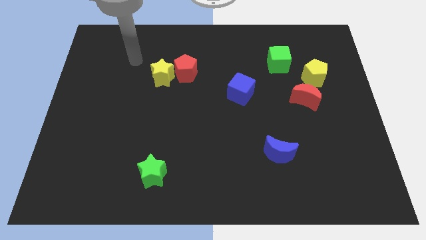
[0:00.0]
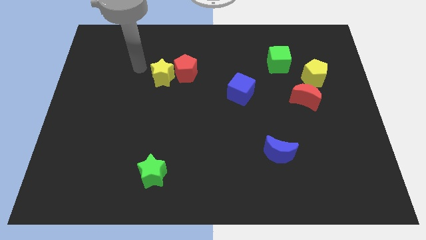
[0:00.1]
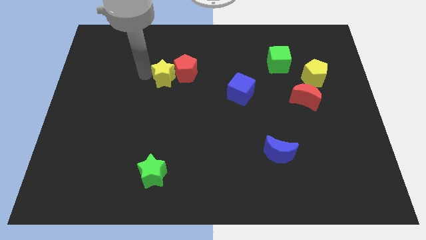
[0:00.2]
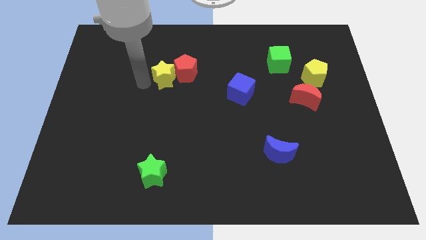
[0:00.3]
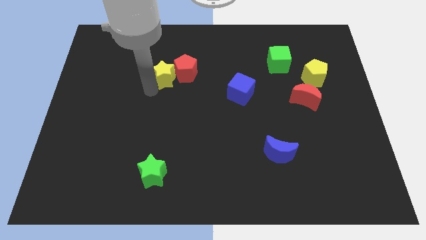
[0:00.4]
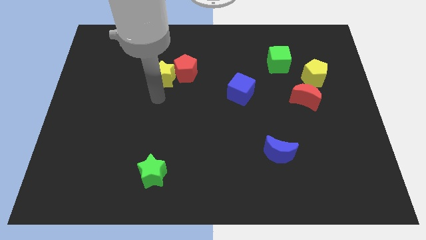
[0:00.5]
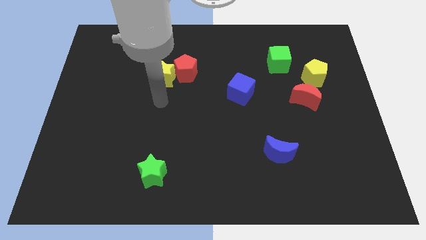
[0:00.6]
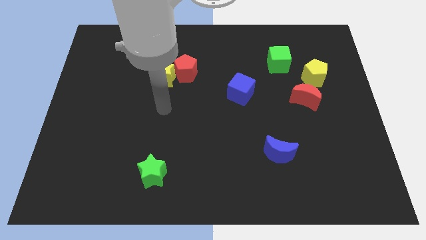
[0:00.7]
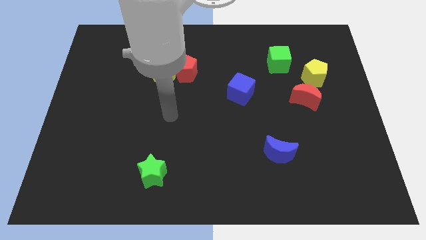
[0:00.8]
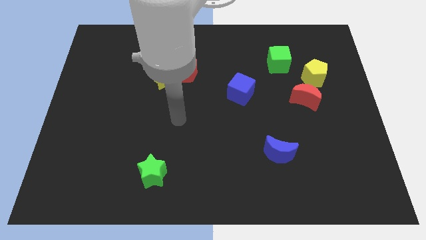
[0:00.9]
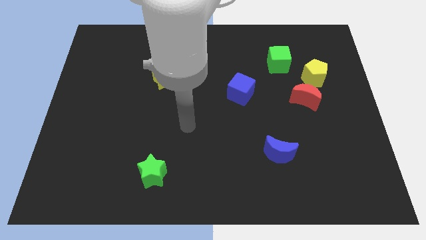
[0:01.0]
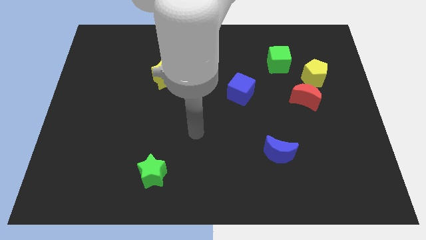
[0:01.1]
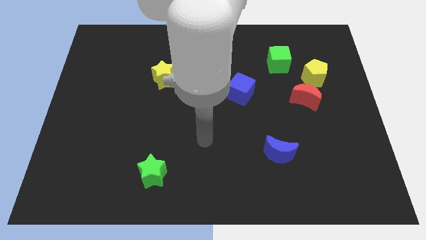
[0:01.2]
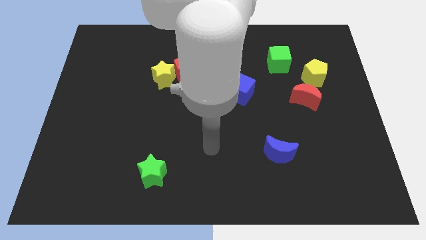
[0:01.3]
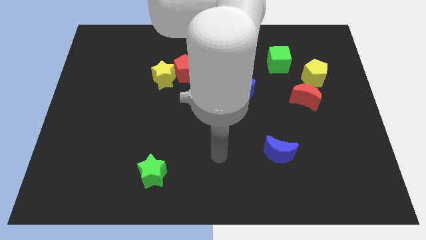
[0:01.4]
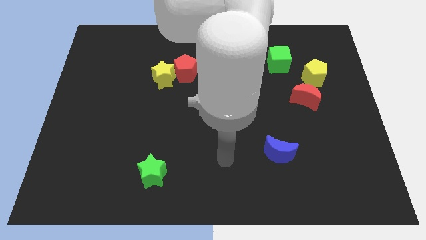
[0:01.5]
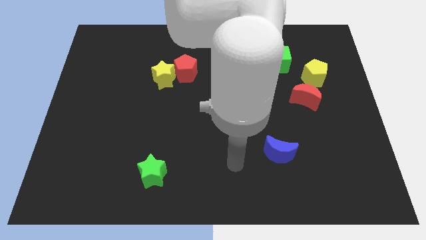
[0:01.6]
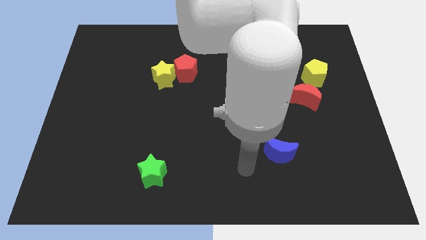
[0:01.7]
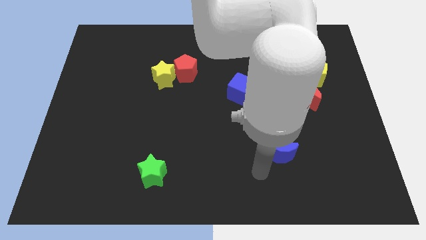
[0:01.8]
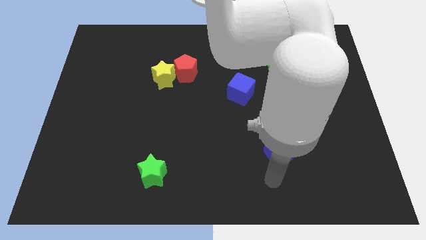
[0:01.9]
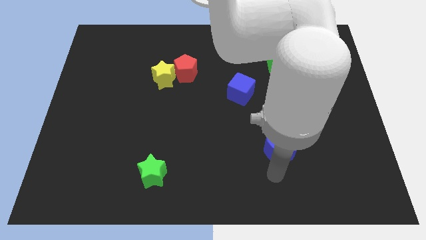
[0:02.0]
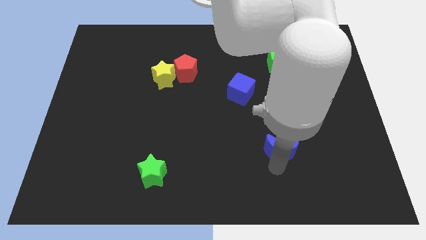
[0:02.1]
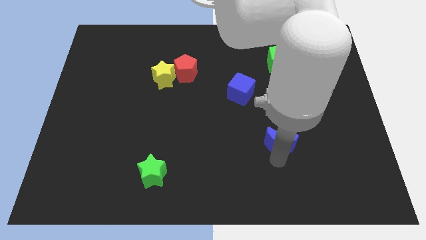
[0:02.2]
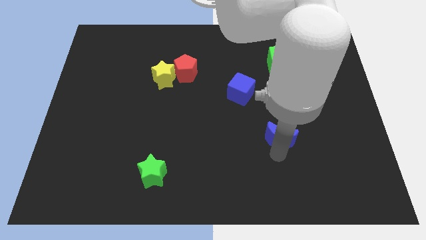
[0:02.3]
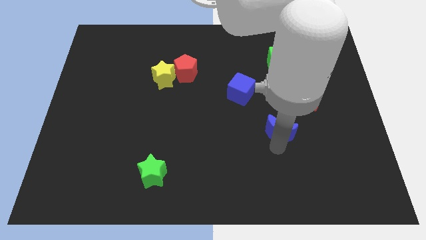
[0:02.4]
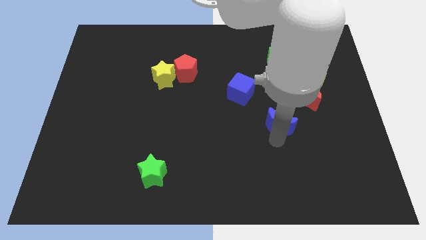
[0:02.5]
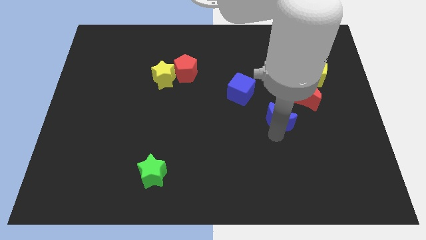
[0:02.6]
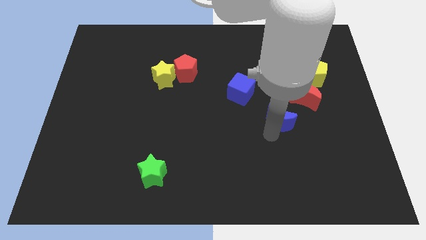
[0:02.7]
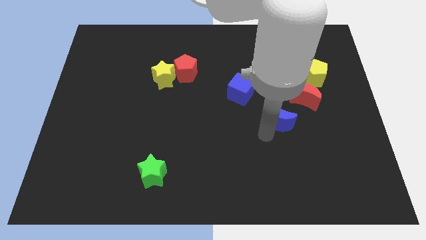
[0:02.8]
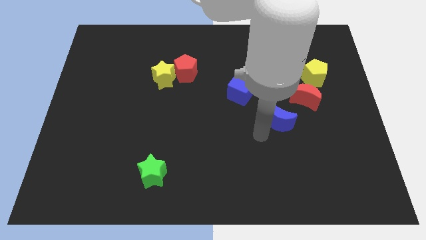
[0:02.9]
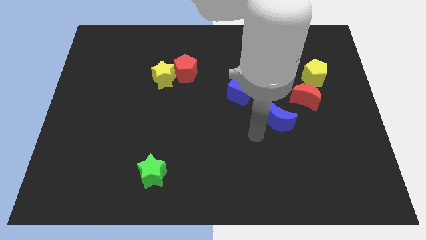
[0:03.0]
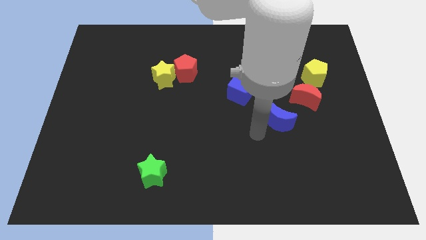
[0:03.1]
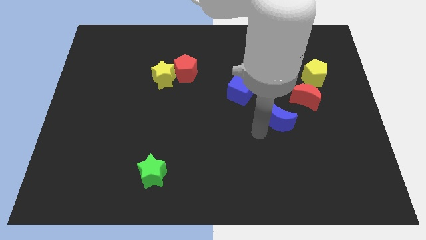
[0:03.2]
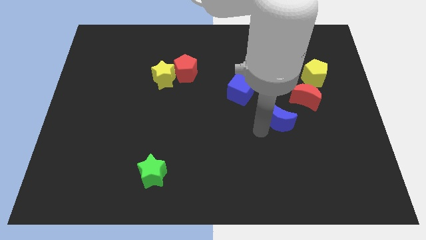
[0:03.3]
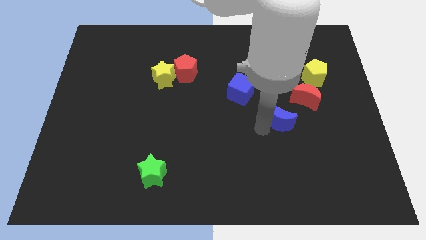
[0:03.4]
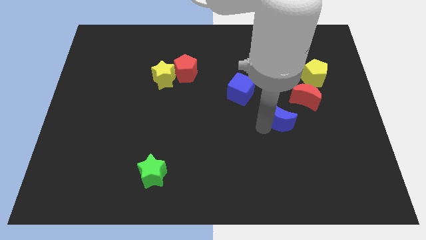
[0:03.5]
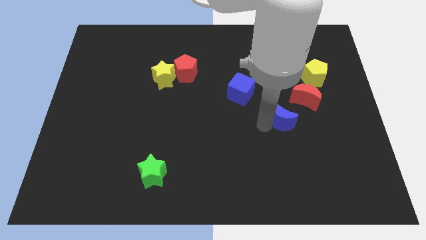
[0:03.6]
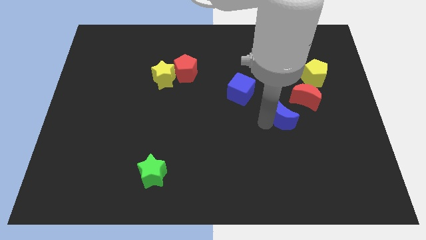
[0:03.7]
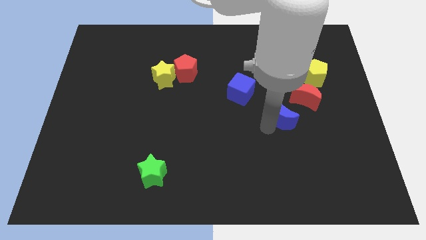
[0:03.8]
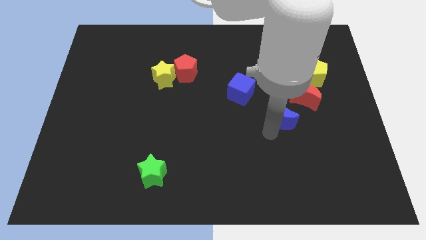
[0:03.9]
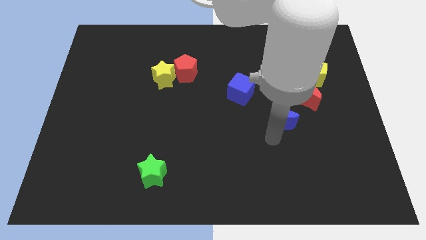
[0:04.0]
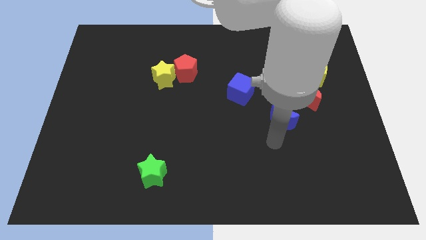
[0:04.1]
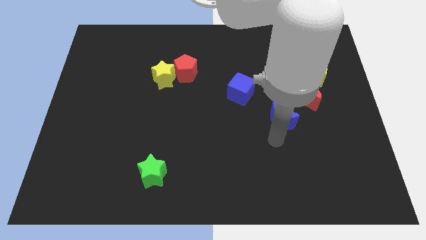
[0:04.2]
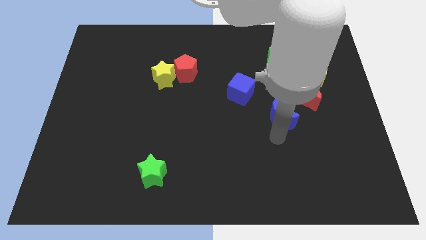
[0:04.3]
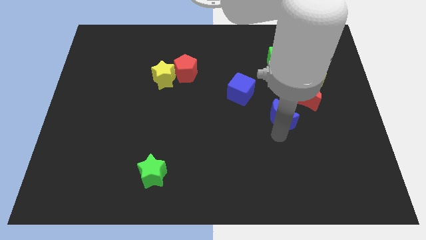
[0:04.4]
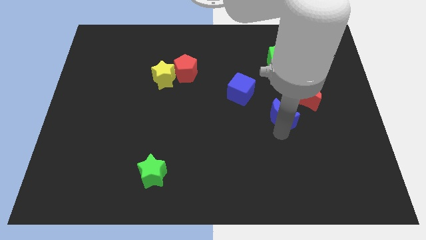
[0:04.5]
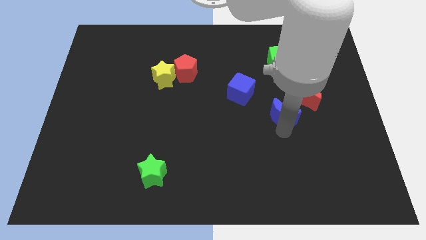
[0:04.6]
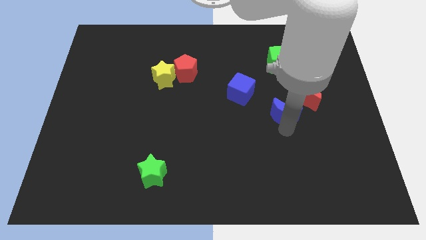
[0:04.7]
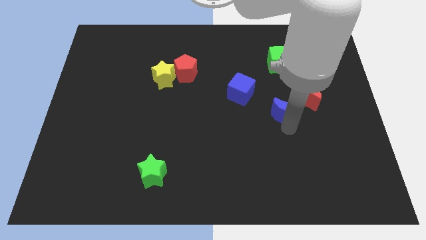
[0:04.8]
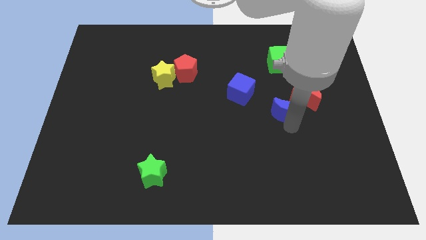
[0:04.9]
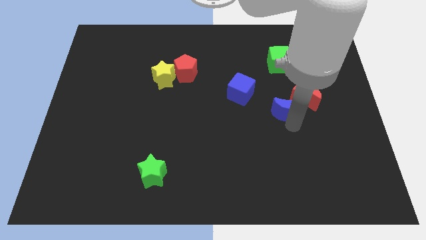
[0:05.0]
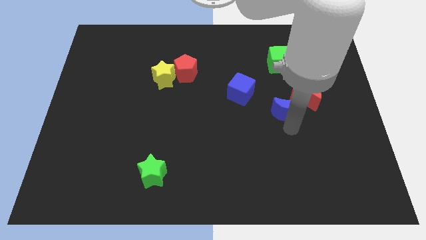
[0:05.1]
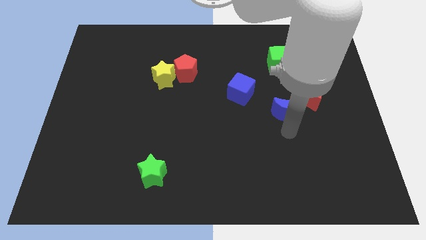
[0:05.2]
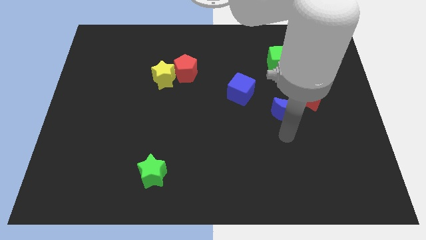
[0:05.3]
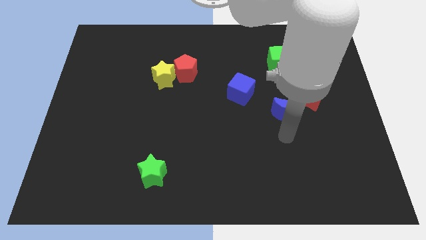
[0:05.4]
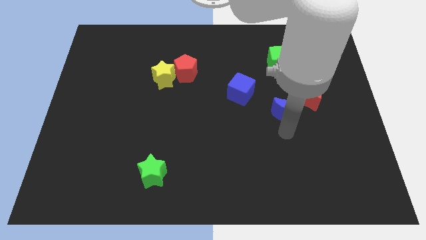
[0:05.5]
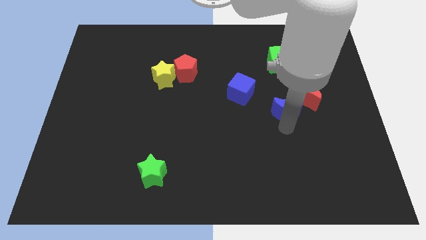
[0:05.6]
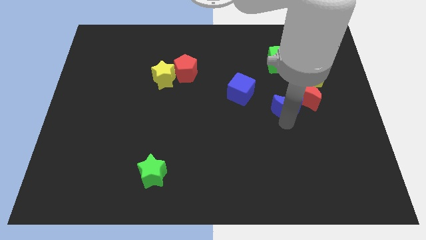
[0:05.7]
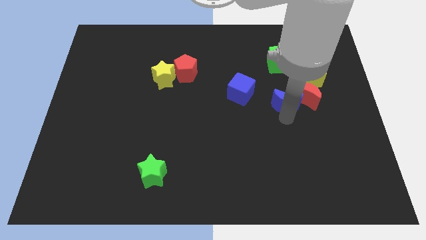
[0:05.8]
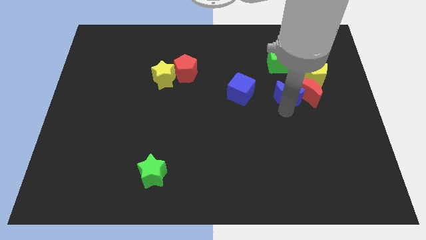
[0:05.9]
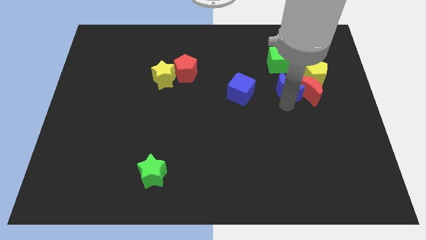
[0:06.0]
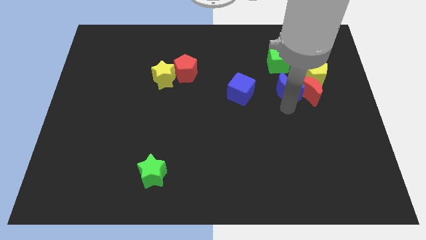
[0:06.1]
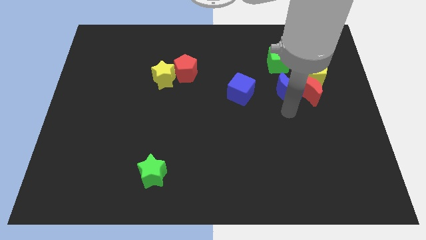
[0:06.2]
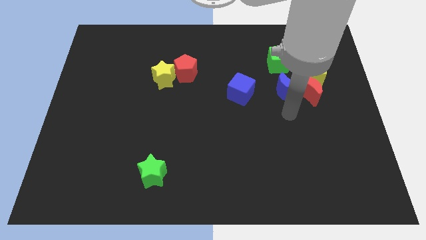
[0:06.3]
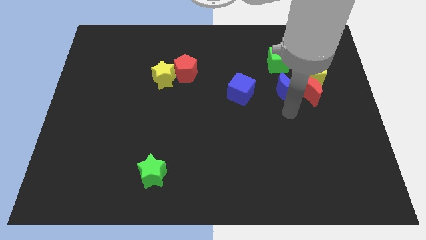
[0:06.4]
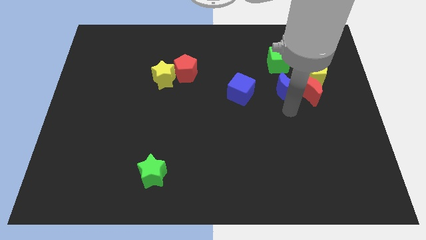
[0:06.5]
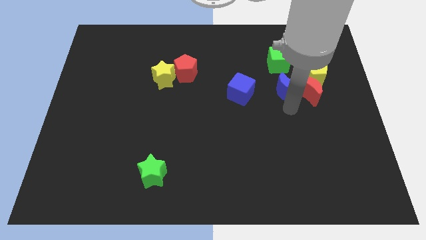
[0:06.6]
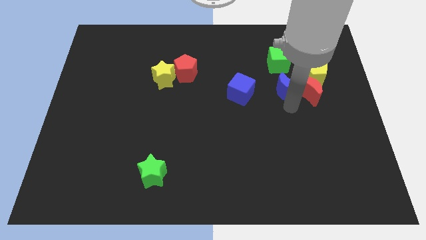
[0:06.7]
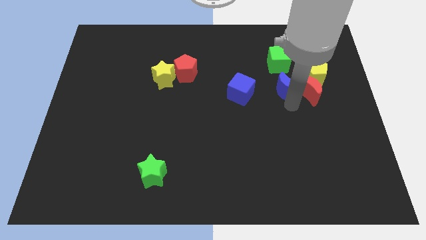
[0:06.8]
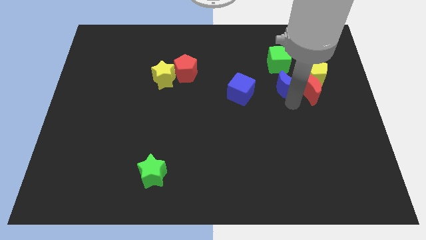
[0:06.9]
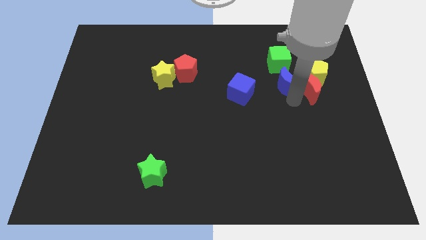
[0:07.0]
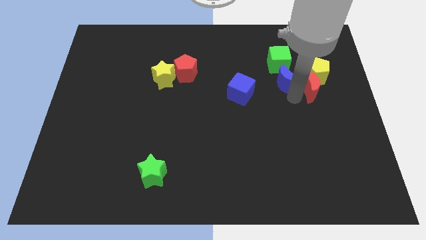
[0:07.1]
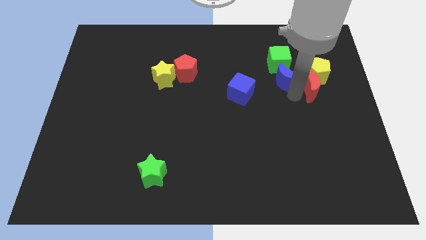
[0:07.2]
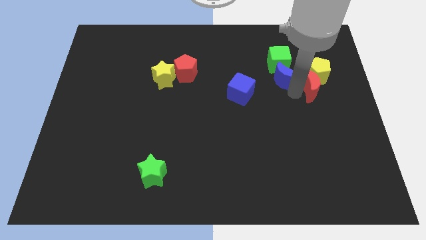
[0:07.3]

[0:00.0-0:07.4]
slide the blue moon to the green cube

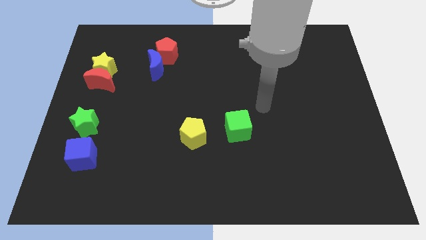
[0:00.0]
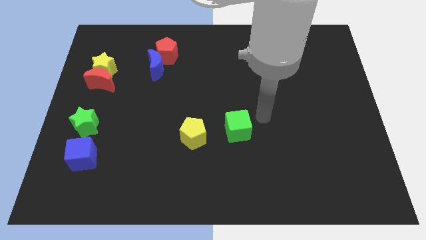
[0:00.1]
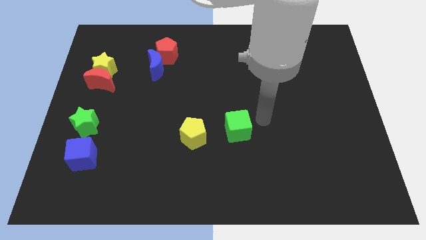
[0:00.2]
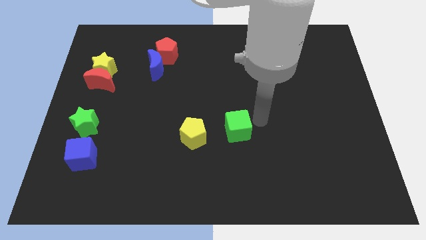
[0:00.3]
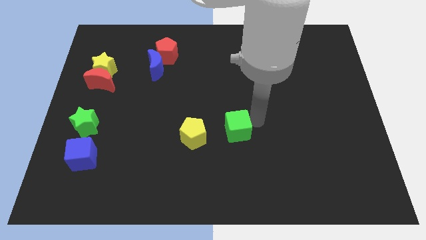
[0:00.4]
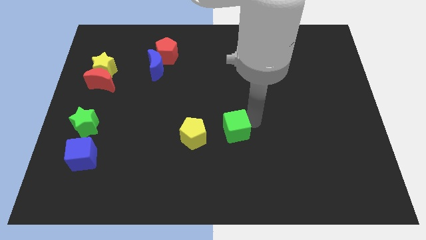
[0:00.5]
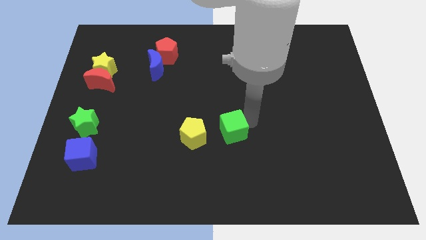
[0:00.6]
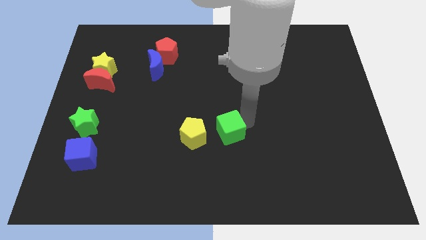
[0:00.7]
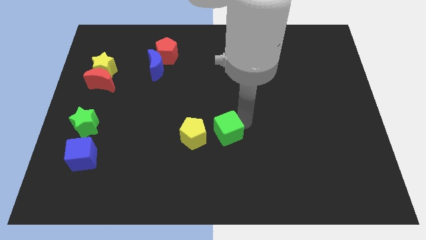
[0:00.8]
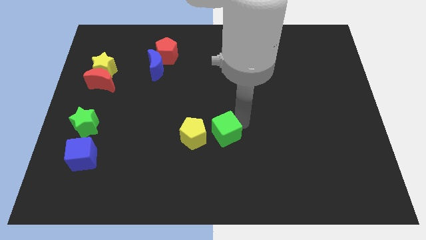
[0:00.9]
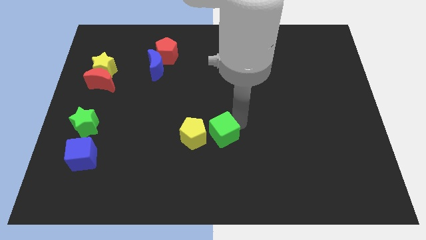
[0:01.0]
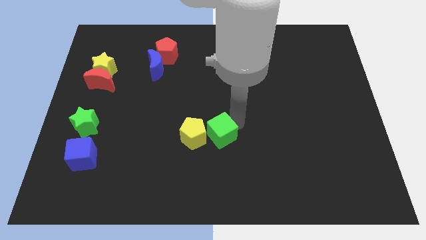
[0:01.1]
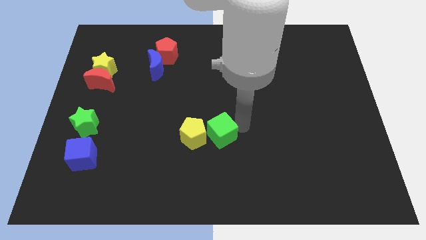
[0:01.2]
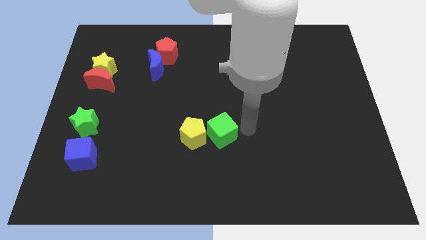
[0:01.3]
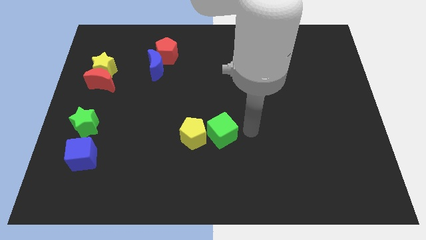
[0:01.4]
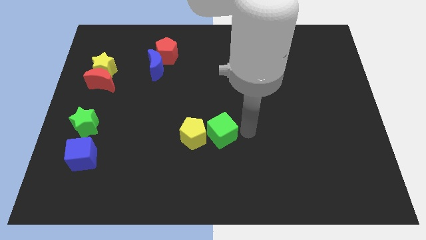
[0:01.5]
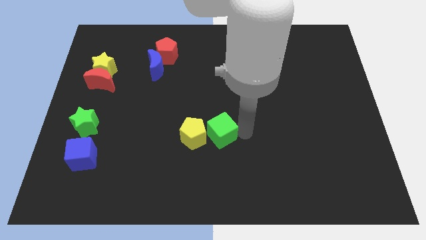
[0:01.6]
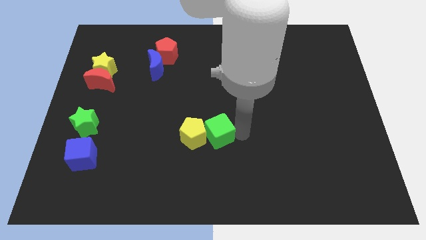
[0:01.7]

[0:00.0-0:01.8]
slide the green cube next to the yellow pentagon
